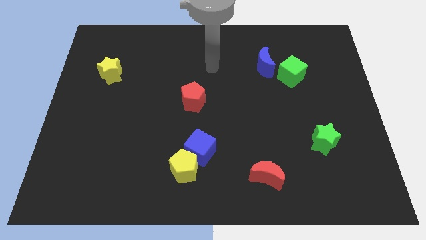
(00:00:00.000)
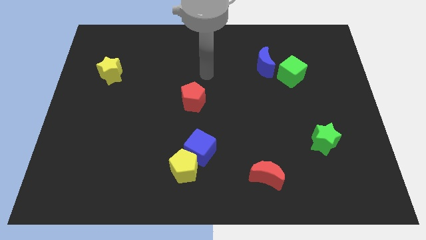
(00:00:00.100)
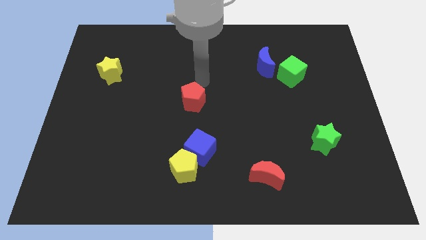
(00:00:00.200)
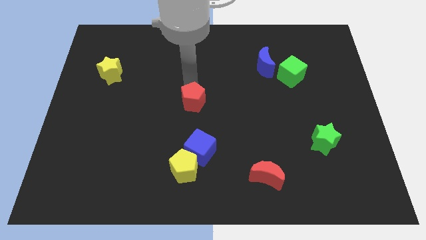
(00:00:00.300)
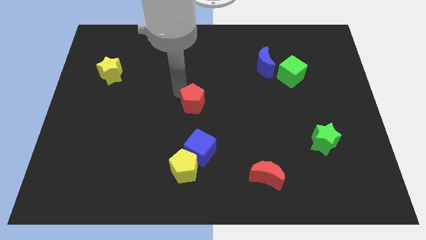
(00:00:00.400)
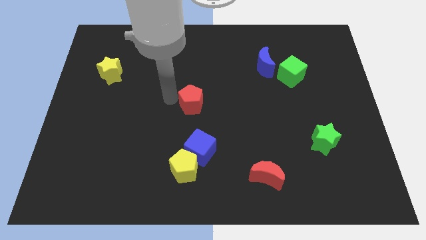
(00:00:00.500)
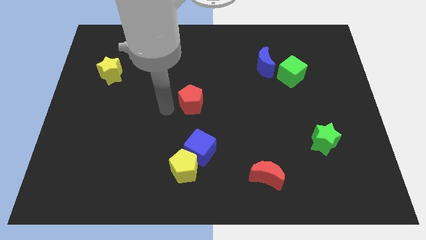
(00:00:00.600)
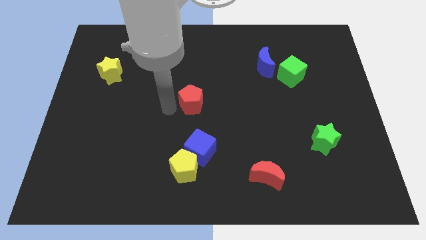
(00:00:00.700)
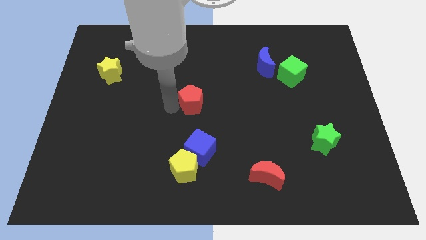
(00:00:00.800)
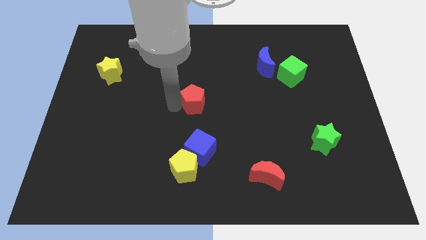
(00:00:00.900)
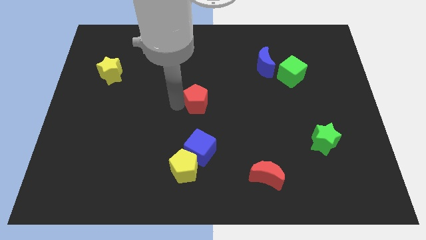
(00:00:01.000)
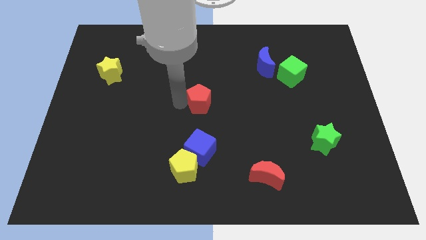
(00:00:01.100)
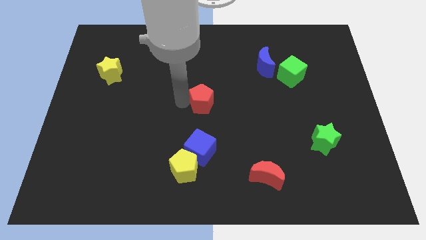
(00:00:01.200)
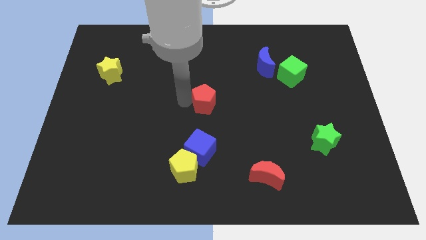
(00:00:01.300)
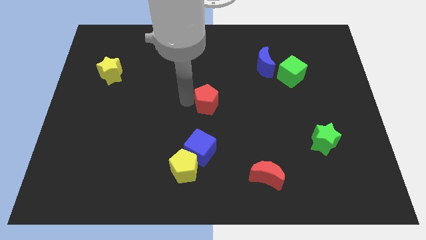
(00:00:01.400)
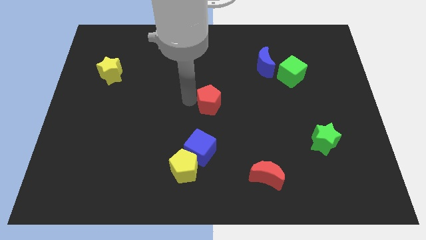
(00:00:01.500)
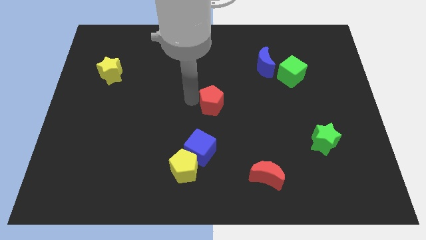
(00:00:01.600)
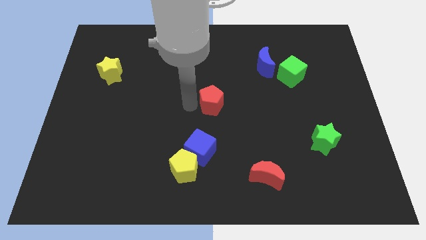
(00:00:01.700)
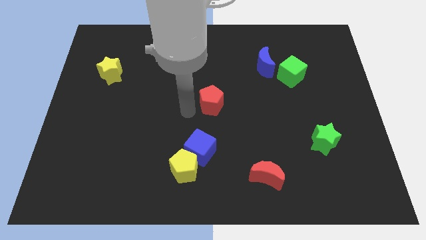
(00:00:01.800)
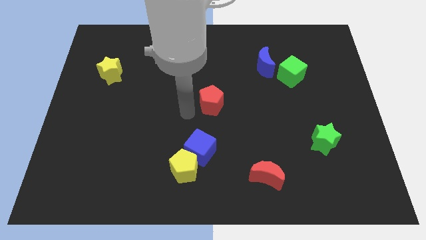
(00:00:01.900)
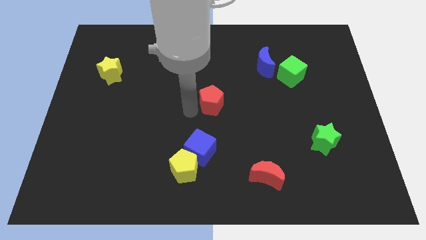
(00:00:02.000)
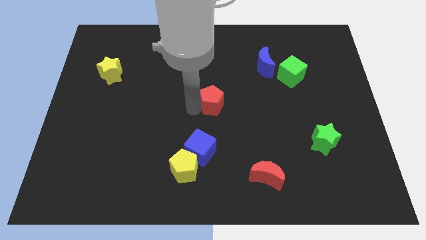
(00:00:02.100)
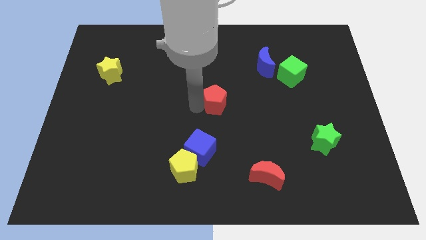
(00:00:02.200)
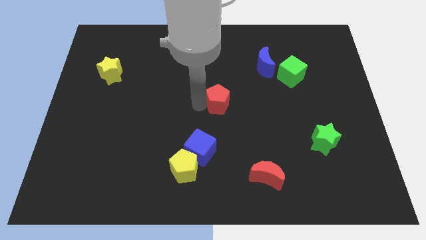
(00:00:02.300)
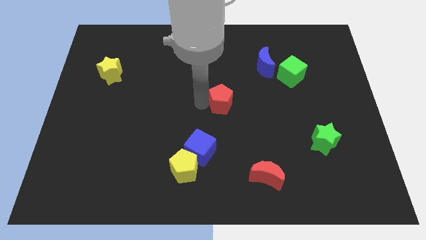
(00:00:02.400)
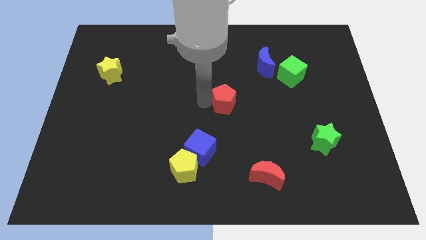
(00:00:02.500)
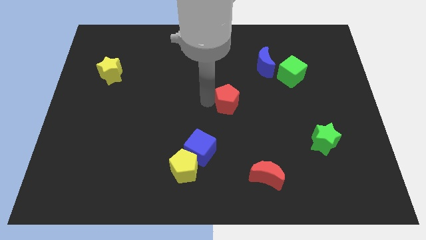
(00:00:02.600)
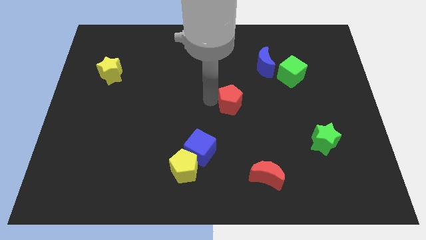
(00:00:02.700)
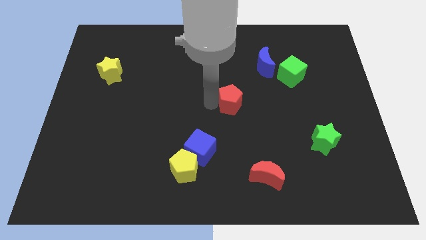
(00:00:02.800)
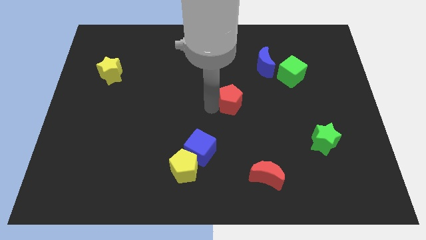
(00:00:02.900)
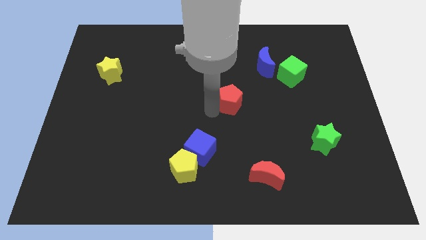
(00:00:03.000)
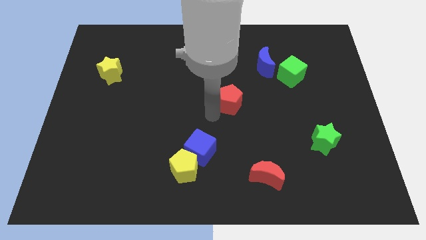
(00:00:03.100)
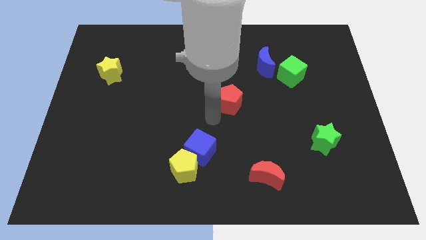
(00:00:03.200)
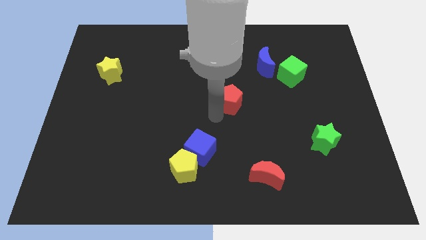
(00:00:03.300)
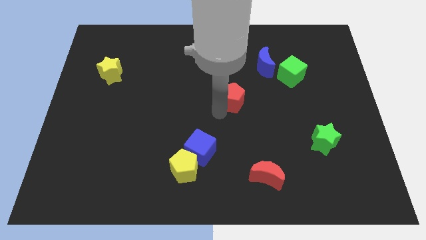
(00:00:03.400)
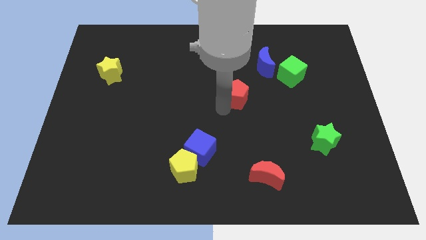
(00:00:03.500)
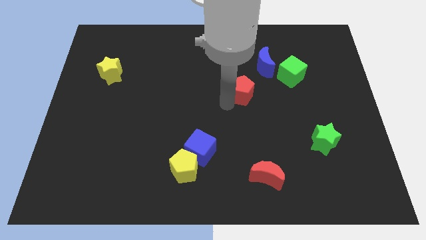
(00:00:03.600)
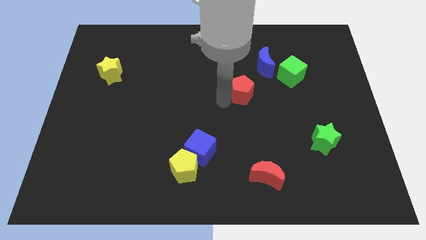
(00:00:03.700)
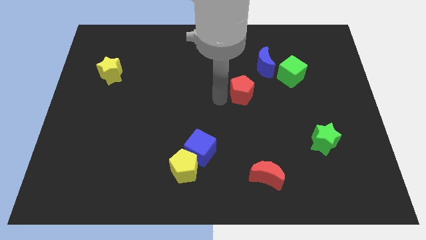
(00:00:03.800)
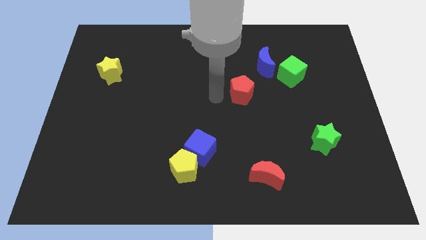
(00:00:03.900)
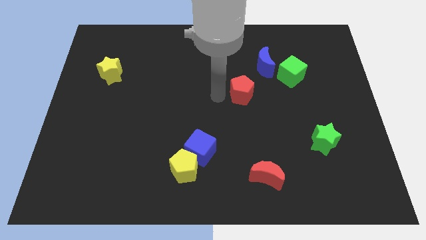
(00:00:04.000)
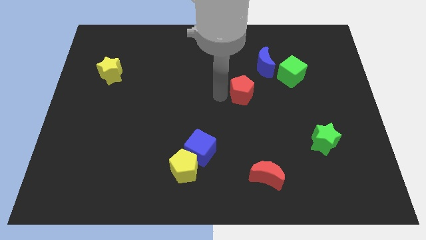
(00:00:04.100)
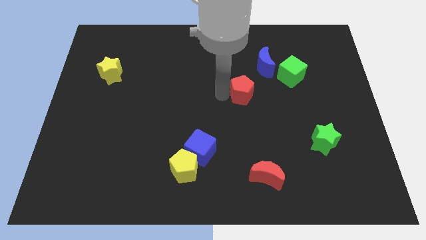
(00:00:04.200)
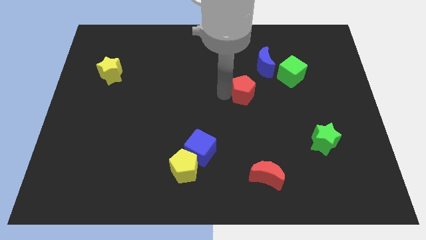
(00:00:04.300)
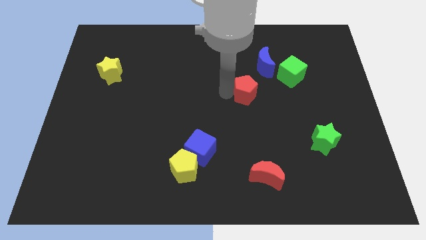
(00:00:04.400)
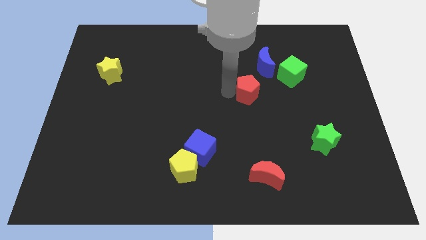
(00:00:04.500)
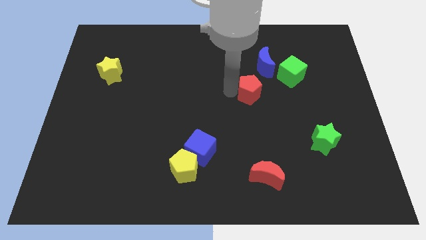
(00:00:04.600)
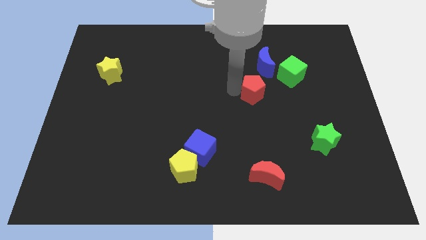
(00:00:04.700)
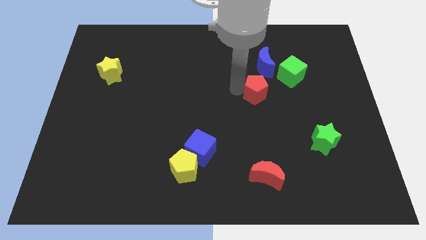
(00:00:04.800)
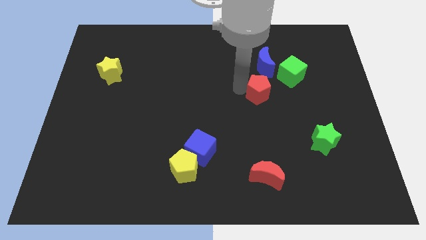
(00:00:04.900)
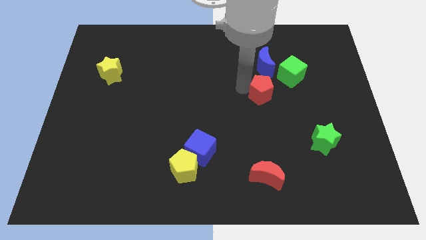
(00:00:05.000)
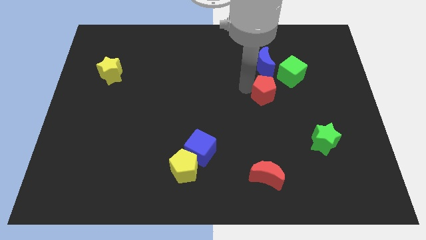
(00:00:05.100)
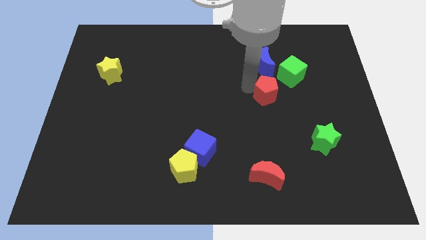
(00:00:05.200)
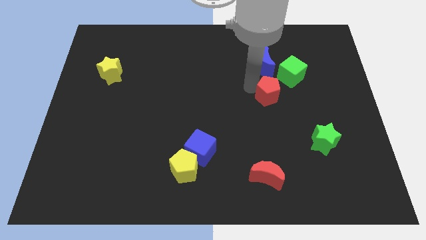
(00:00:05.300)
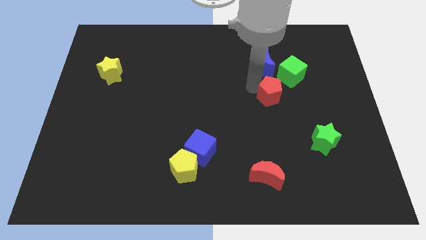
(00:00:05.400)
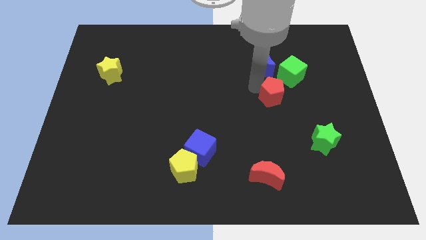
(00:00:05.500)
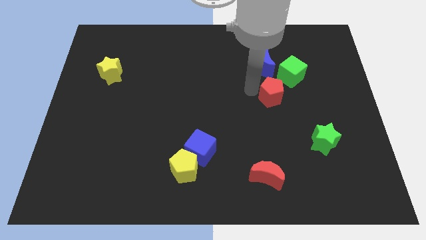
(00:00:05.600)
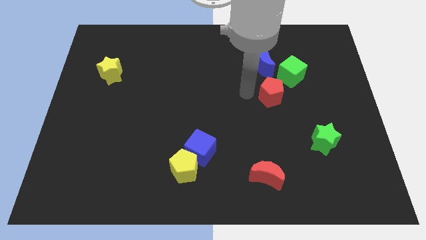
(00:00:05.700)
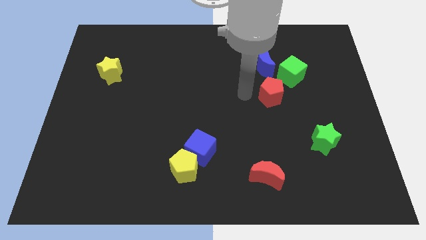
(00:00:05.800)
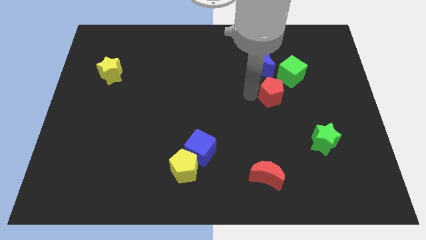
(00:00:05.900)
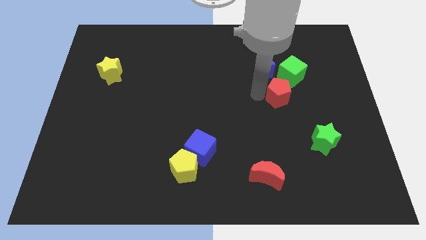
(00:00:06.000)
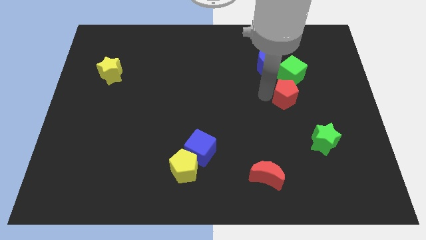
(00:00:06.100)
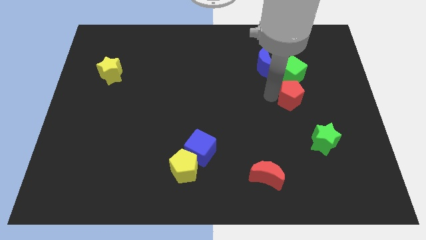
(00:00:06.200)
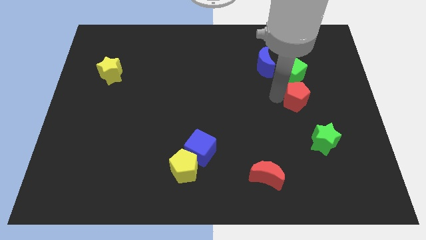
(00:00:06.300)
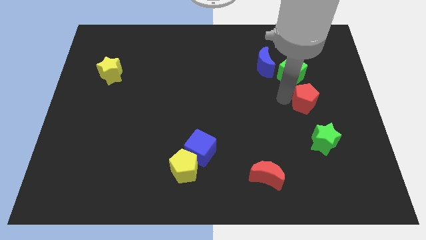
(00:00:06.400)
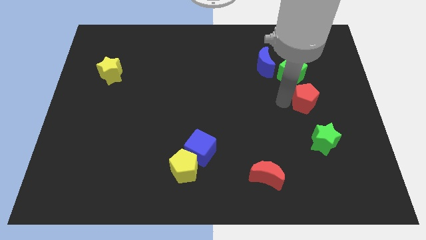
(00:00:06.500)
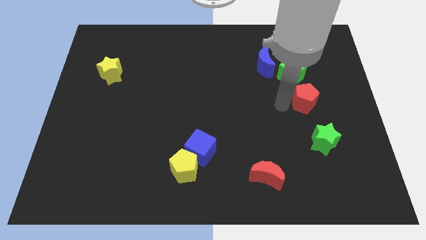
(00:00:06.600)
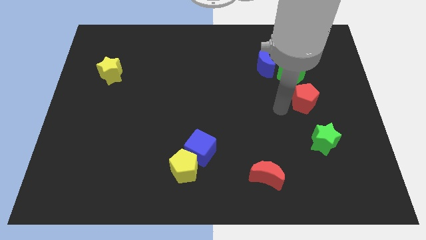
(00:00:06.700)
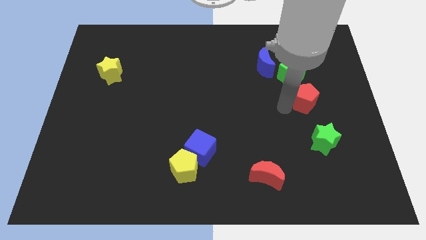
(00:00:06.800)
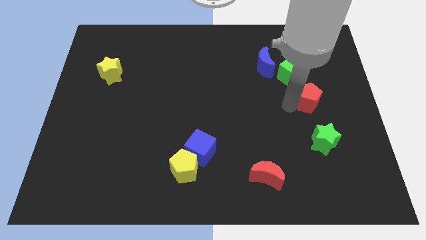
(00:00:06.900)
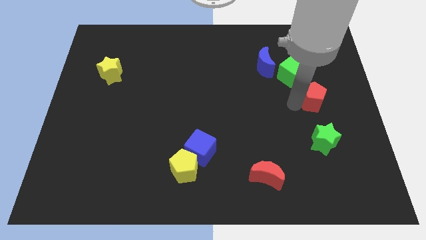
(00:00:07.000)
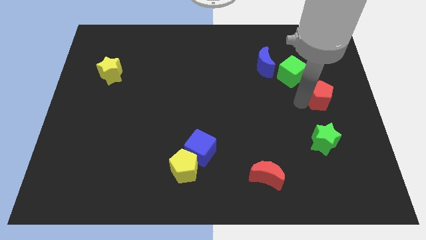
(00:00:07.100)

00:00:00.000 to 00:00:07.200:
slide the red pentagon to the right side
